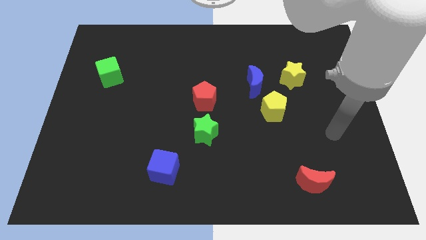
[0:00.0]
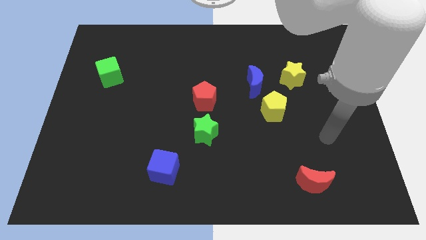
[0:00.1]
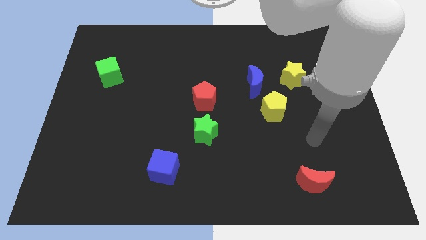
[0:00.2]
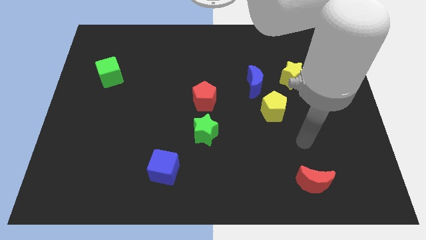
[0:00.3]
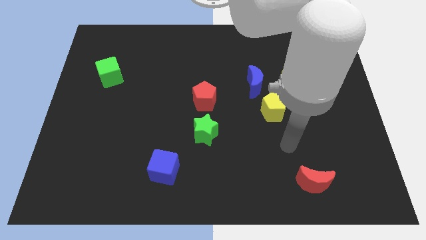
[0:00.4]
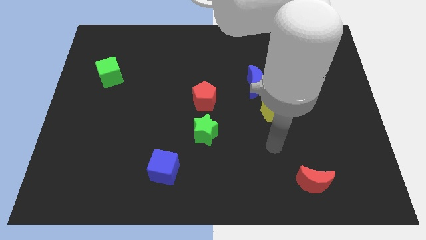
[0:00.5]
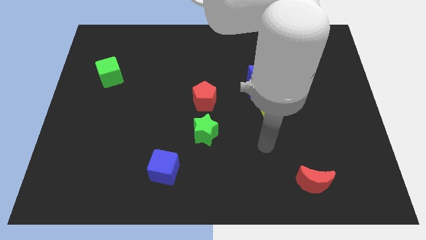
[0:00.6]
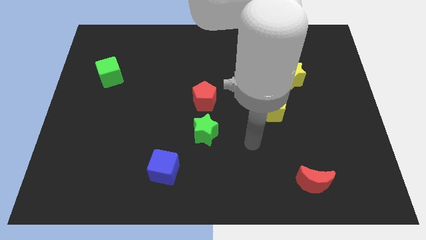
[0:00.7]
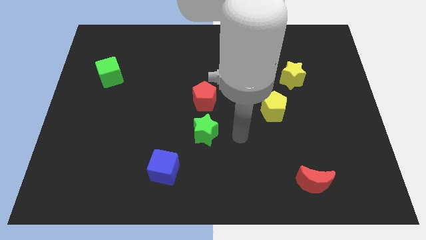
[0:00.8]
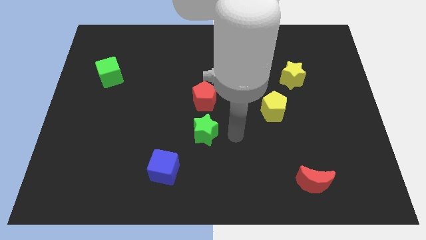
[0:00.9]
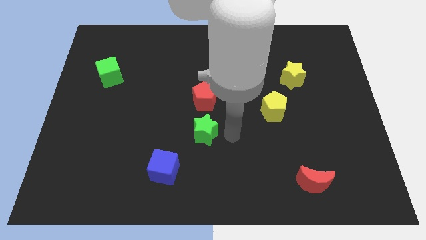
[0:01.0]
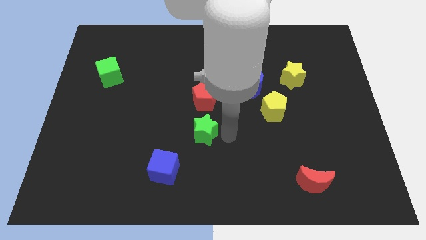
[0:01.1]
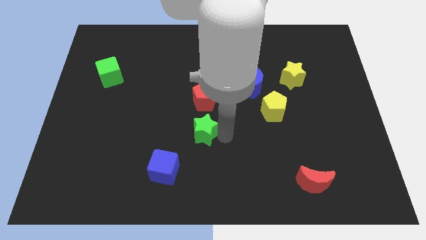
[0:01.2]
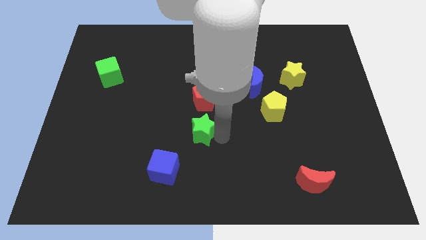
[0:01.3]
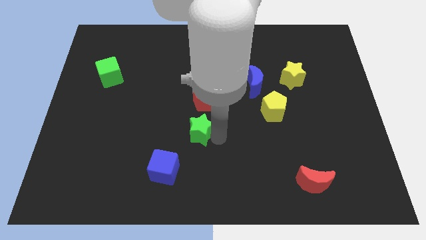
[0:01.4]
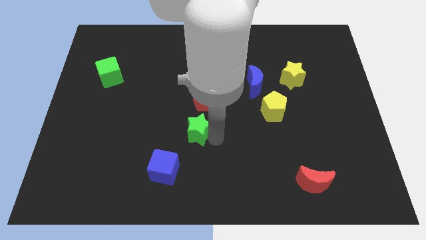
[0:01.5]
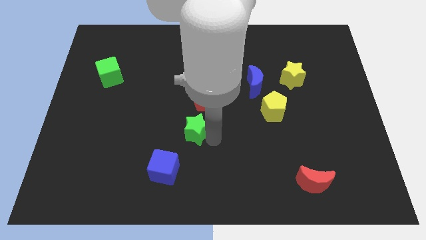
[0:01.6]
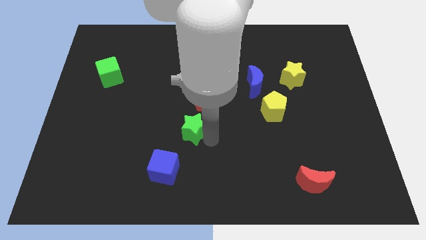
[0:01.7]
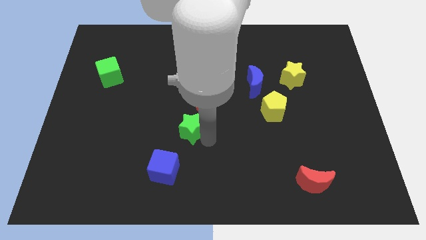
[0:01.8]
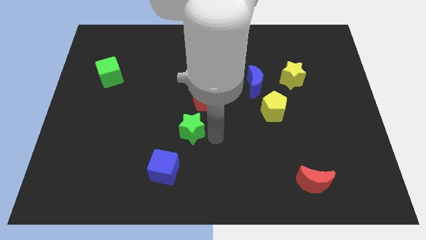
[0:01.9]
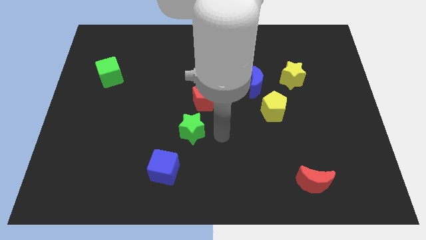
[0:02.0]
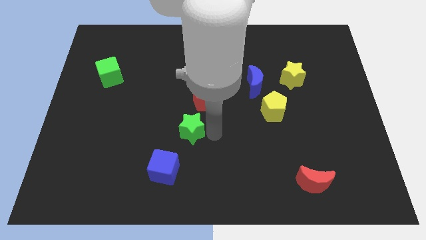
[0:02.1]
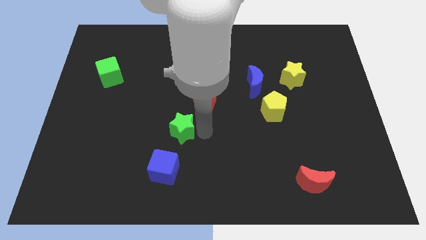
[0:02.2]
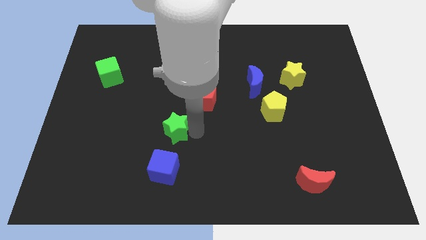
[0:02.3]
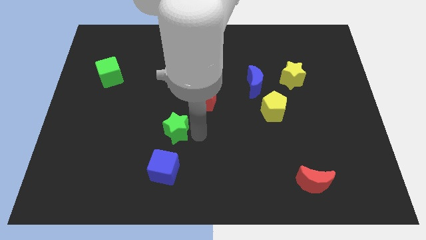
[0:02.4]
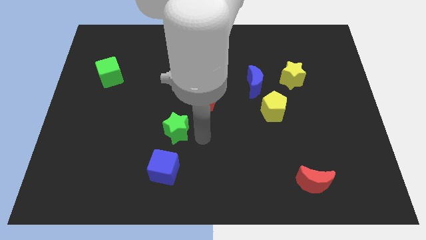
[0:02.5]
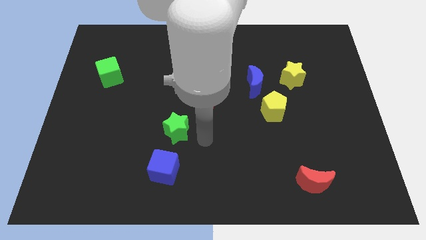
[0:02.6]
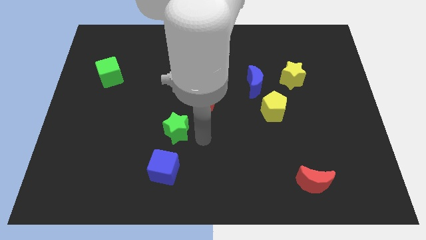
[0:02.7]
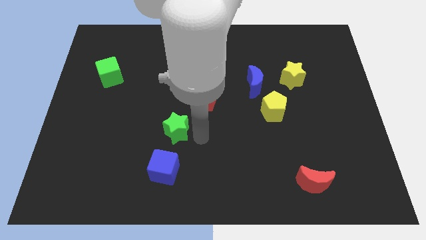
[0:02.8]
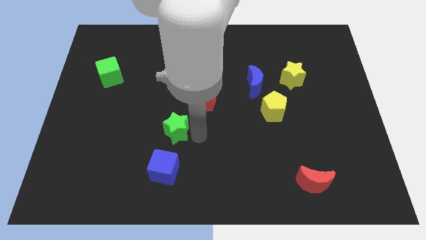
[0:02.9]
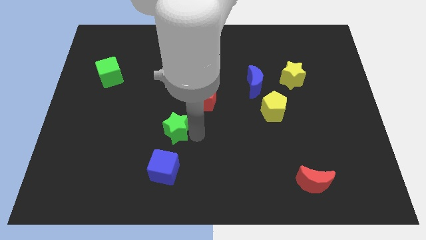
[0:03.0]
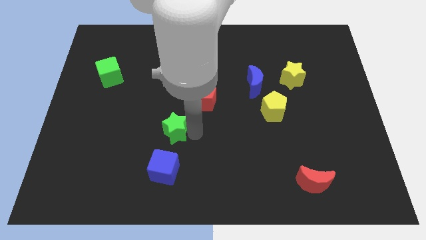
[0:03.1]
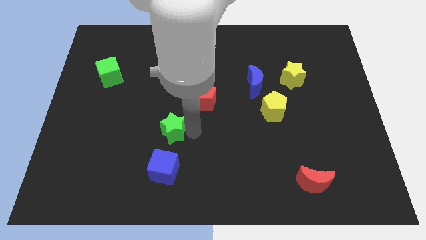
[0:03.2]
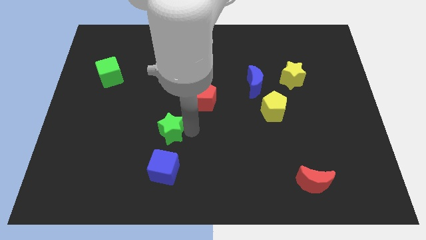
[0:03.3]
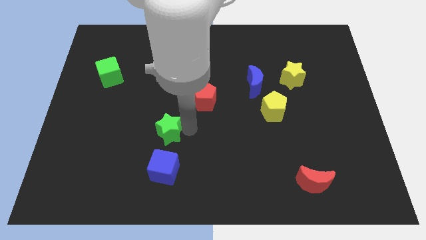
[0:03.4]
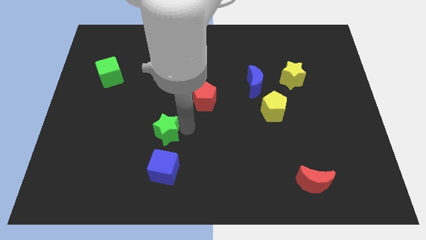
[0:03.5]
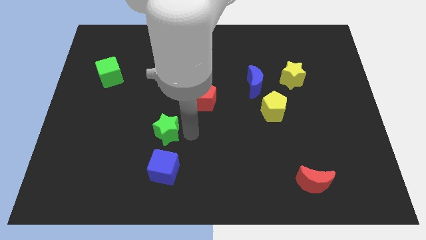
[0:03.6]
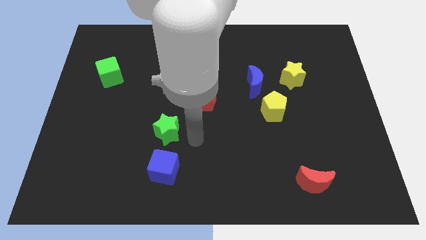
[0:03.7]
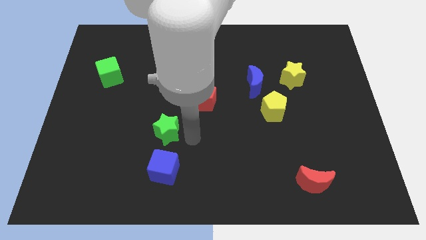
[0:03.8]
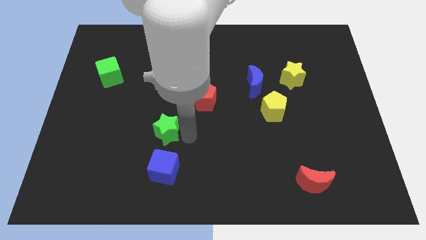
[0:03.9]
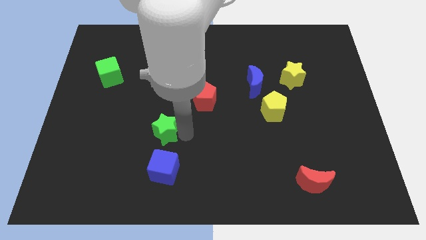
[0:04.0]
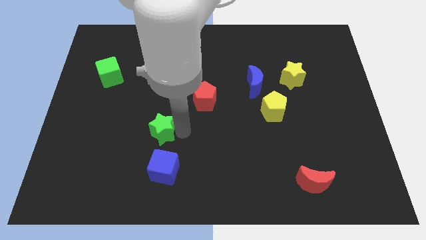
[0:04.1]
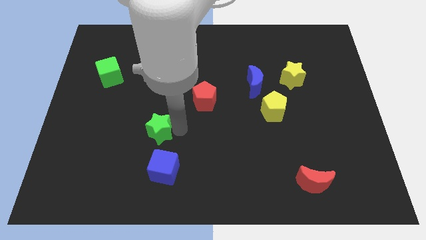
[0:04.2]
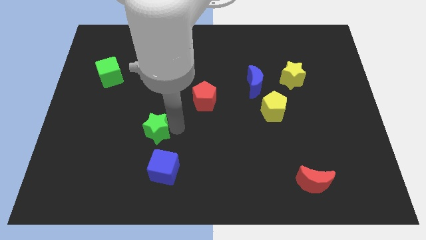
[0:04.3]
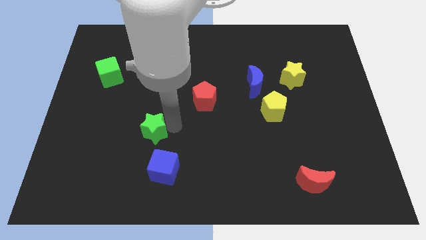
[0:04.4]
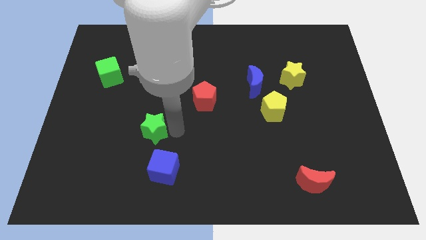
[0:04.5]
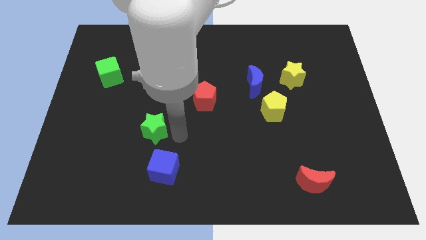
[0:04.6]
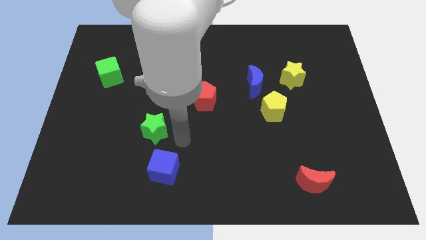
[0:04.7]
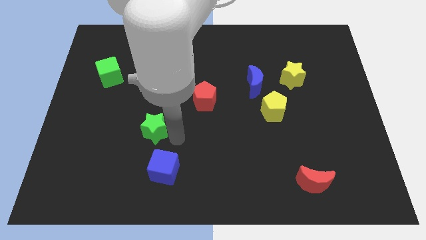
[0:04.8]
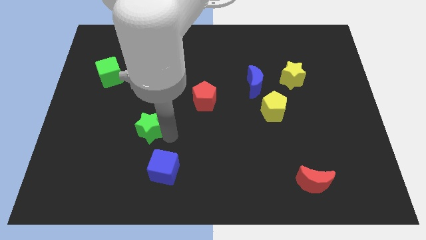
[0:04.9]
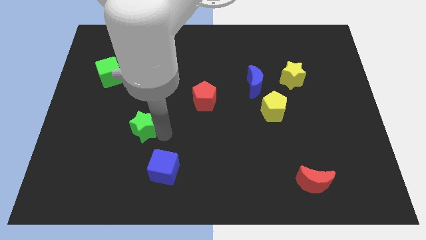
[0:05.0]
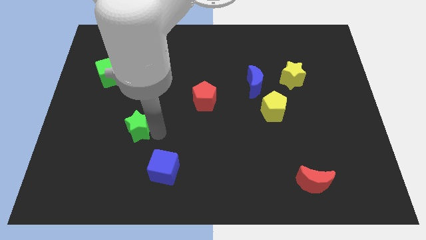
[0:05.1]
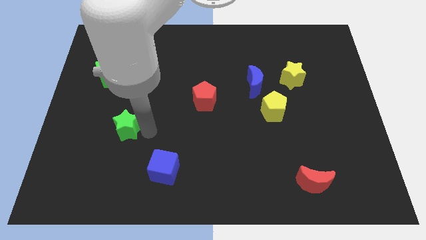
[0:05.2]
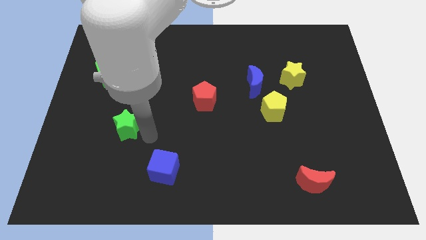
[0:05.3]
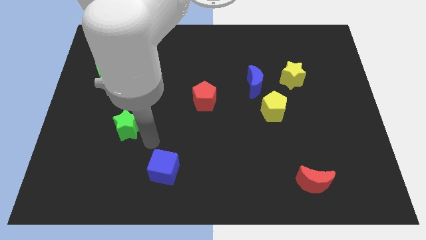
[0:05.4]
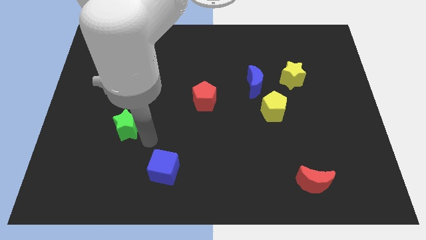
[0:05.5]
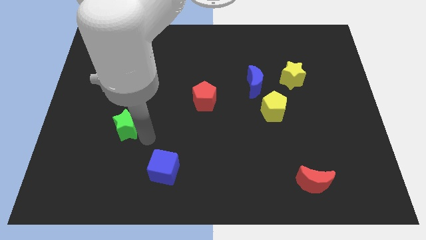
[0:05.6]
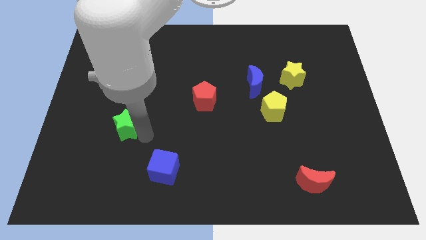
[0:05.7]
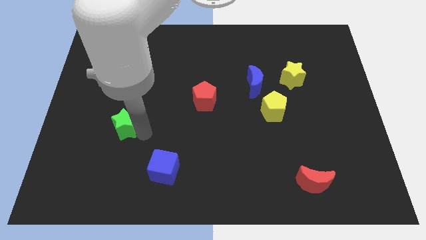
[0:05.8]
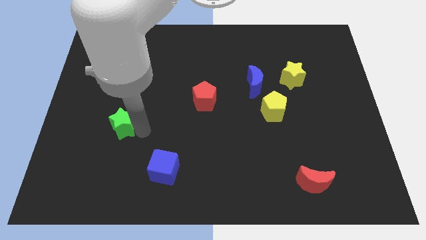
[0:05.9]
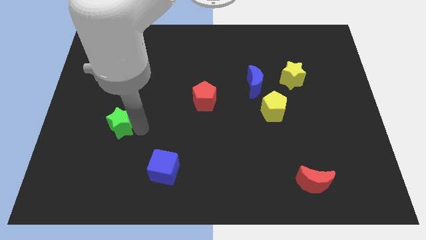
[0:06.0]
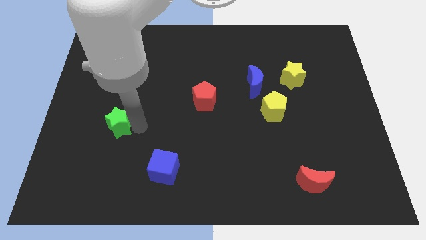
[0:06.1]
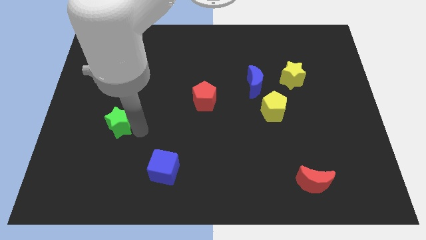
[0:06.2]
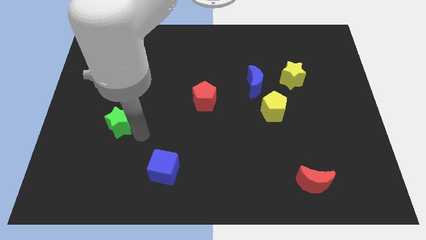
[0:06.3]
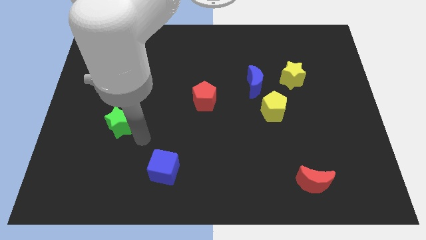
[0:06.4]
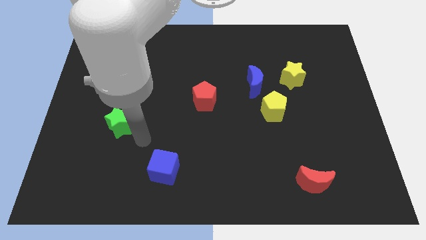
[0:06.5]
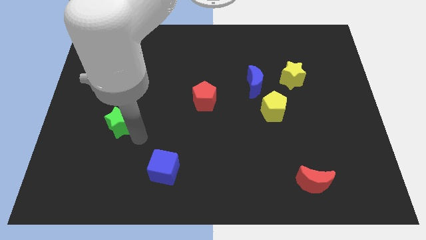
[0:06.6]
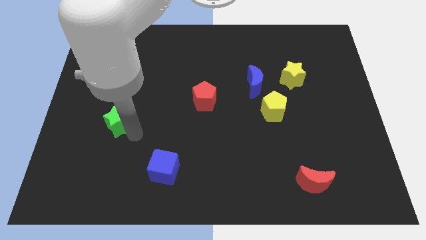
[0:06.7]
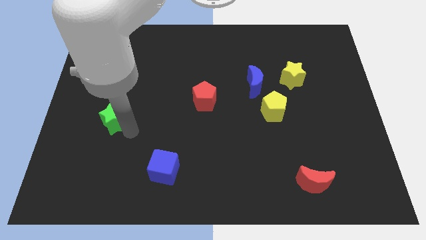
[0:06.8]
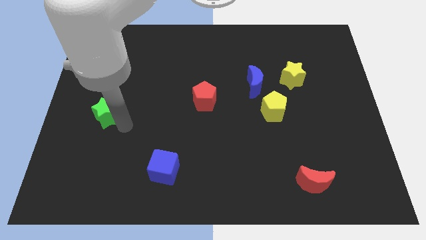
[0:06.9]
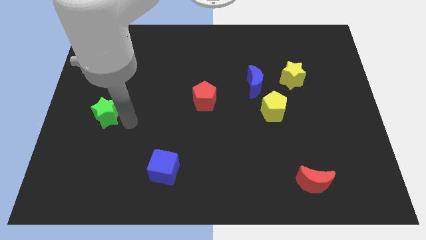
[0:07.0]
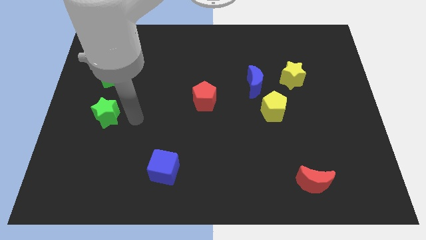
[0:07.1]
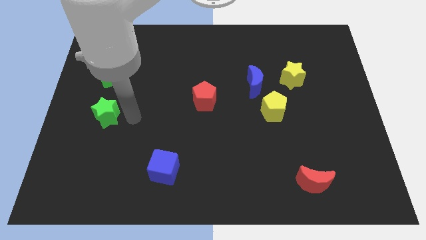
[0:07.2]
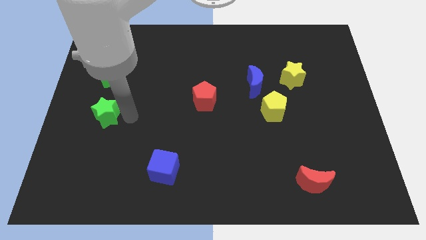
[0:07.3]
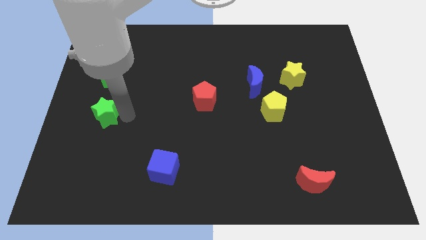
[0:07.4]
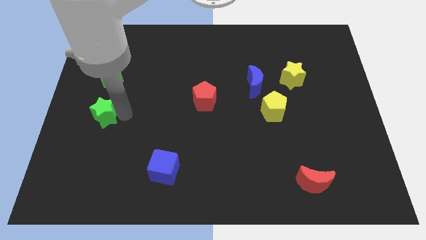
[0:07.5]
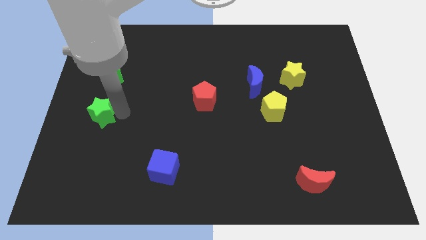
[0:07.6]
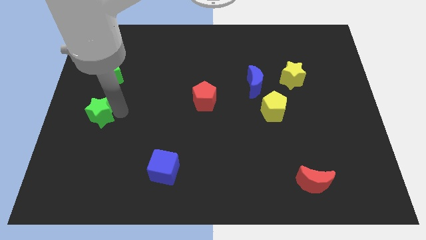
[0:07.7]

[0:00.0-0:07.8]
push the green star to the center left
